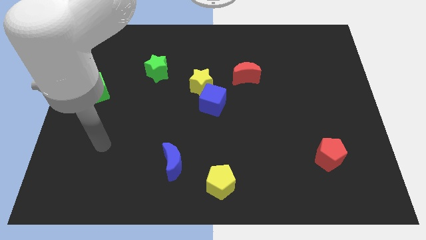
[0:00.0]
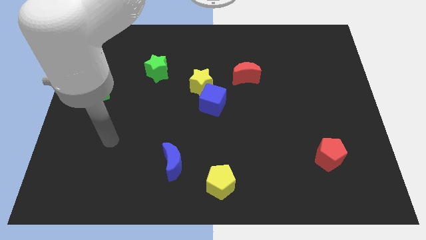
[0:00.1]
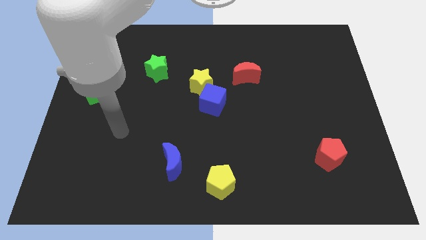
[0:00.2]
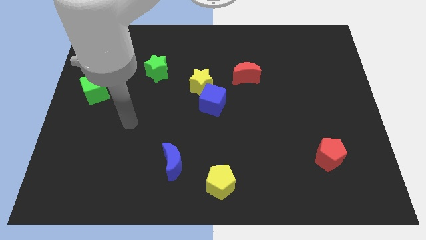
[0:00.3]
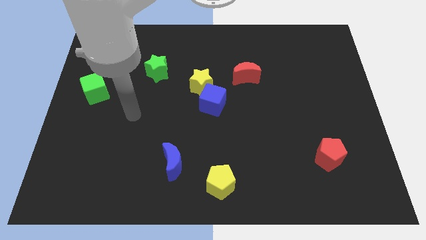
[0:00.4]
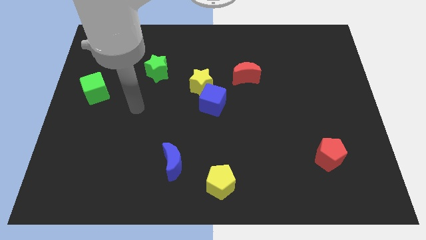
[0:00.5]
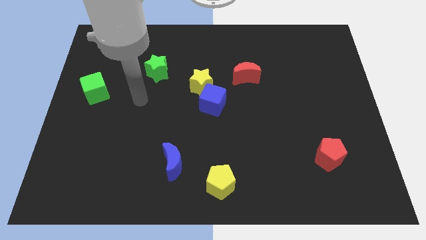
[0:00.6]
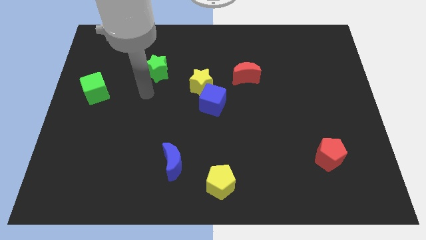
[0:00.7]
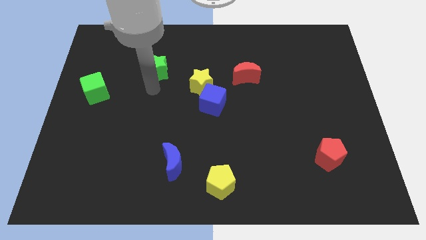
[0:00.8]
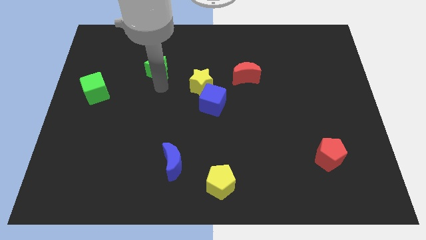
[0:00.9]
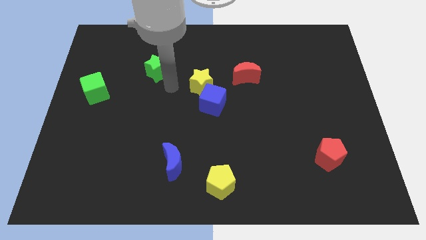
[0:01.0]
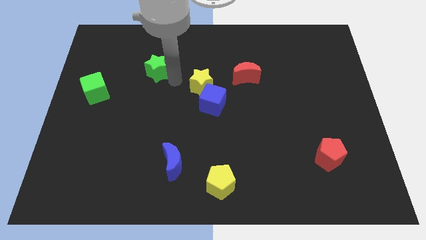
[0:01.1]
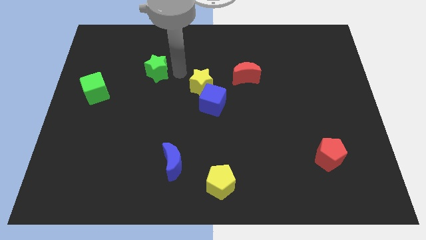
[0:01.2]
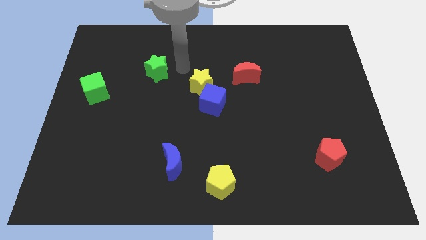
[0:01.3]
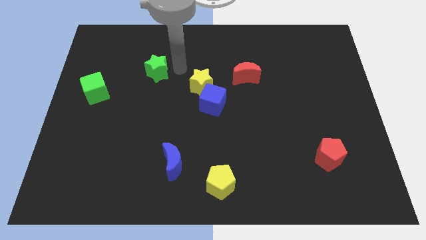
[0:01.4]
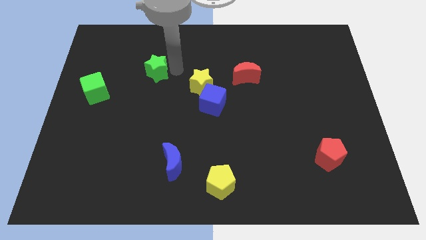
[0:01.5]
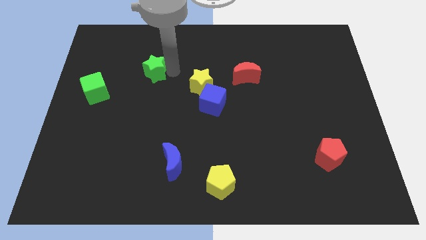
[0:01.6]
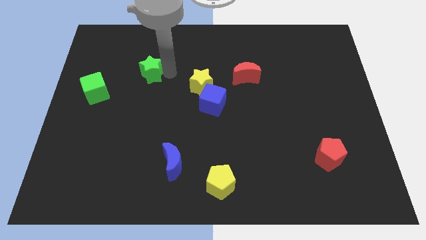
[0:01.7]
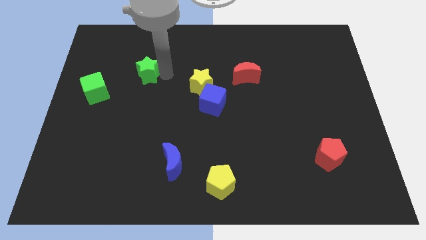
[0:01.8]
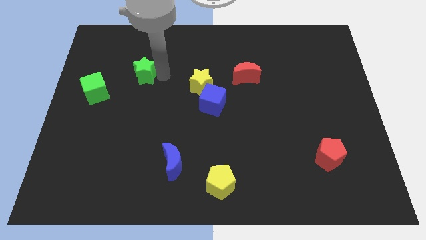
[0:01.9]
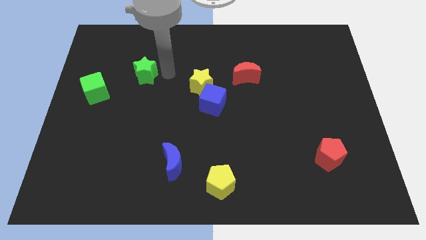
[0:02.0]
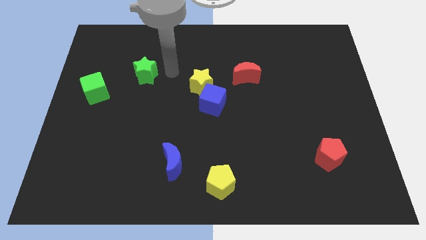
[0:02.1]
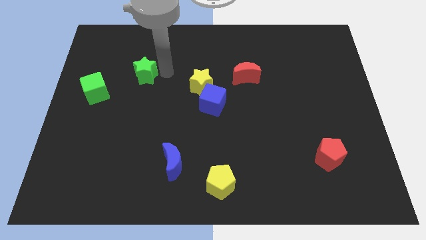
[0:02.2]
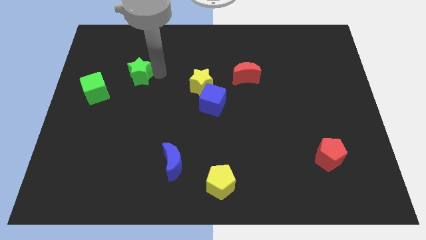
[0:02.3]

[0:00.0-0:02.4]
move the green star to the top right side of the green cube

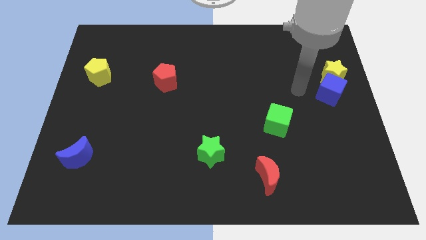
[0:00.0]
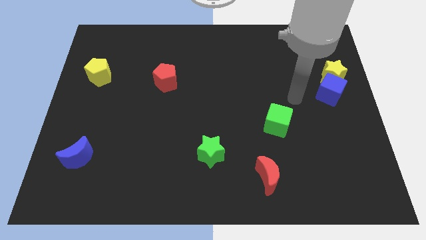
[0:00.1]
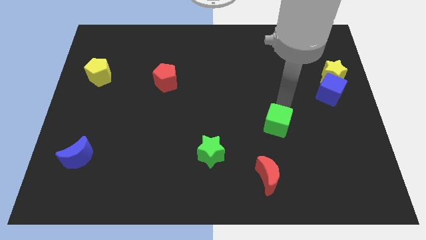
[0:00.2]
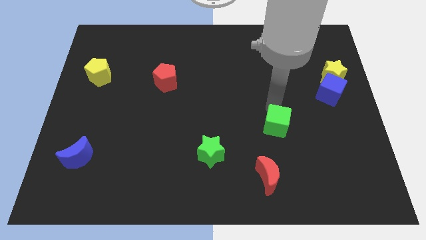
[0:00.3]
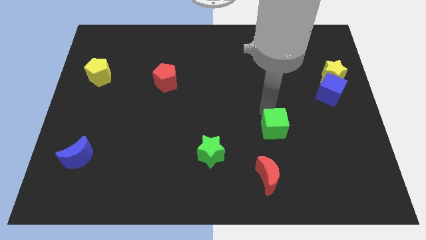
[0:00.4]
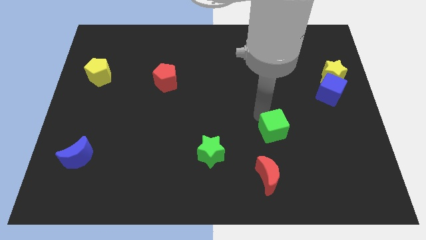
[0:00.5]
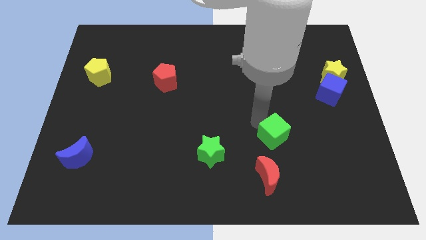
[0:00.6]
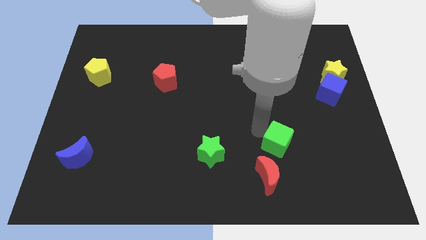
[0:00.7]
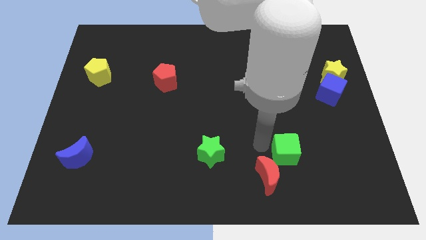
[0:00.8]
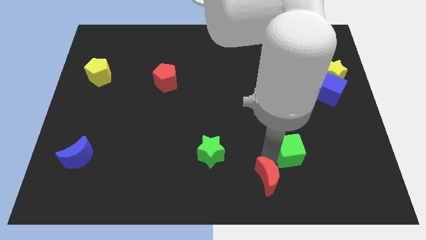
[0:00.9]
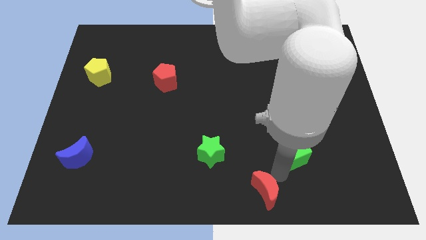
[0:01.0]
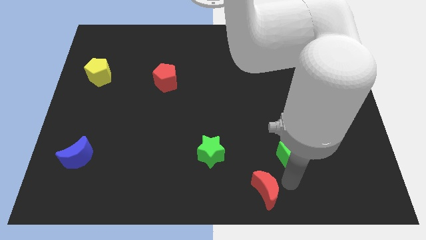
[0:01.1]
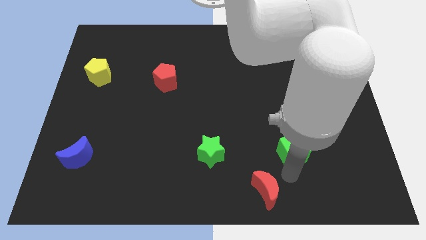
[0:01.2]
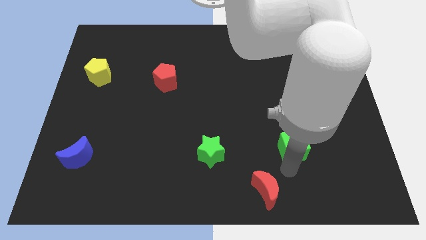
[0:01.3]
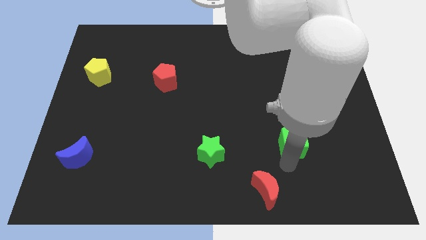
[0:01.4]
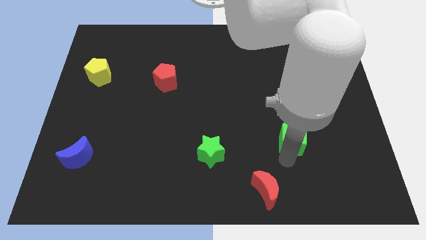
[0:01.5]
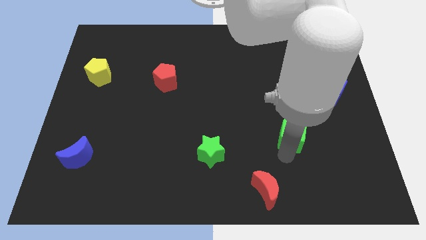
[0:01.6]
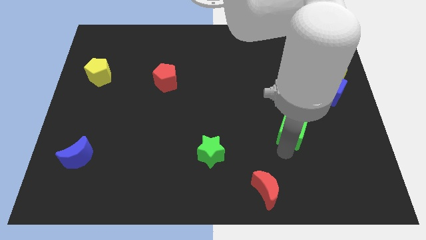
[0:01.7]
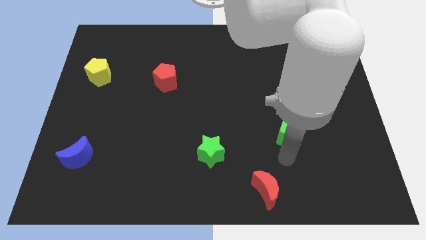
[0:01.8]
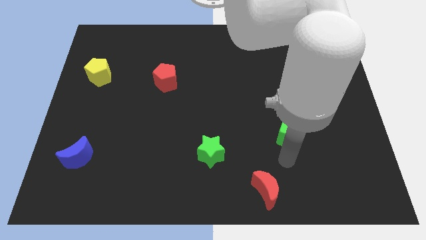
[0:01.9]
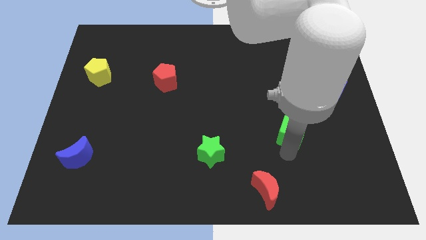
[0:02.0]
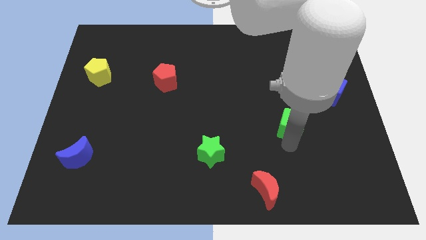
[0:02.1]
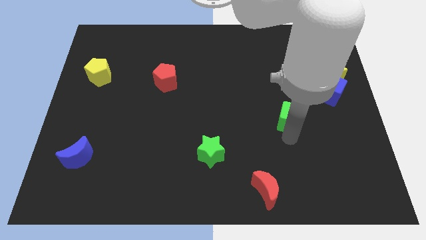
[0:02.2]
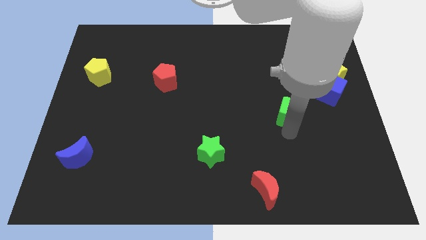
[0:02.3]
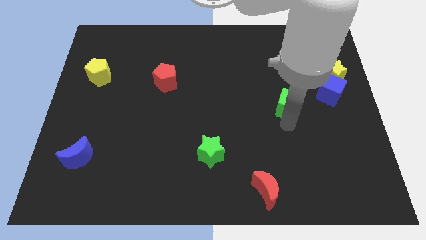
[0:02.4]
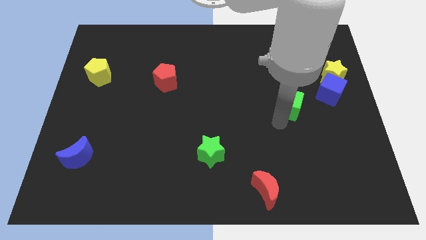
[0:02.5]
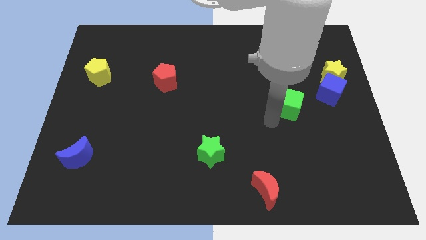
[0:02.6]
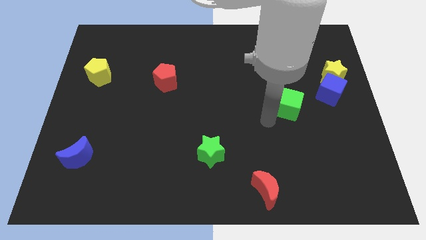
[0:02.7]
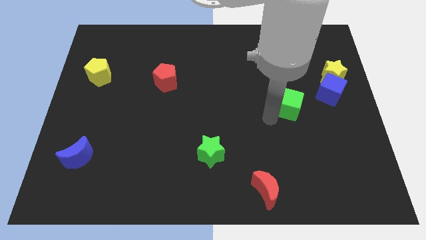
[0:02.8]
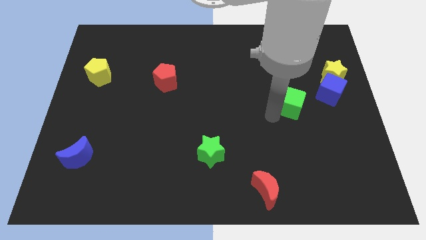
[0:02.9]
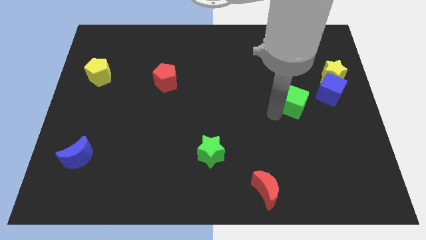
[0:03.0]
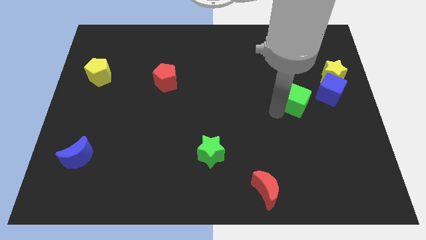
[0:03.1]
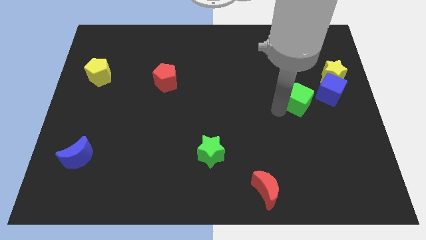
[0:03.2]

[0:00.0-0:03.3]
put the green cube to the bottom left side of the yellow star

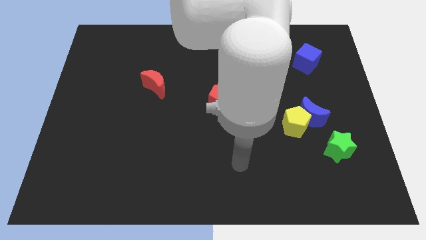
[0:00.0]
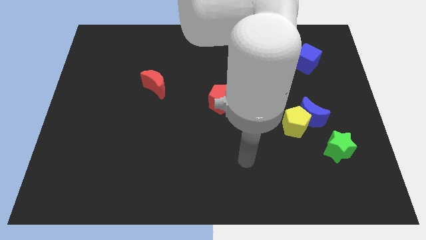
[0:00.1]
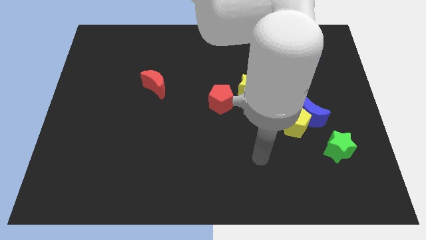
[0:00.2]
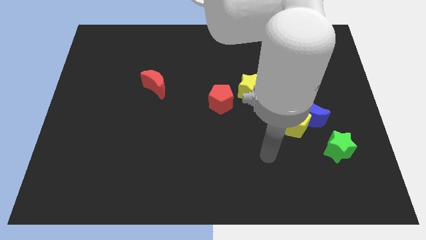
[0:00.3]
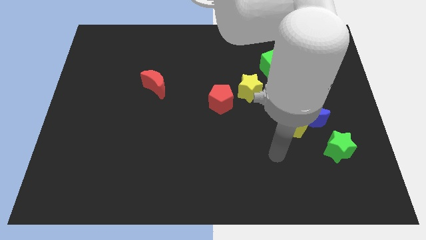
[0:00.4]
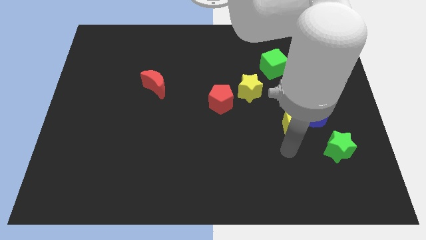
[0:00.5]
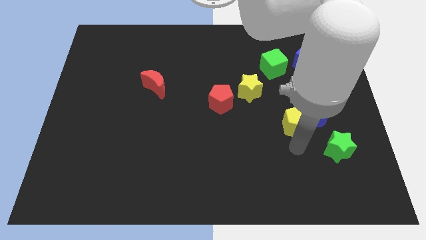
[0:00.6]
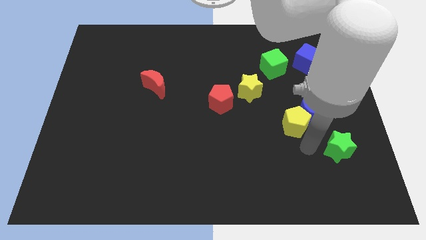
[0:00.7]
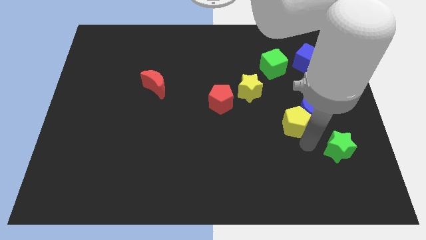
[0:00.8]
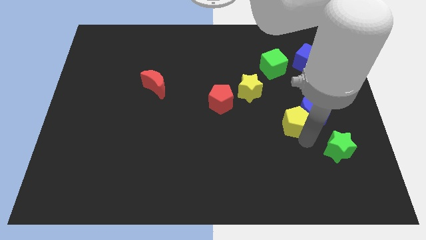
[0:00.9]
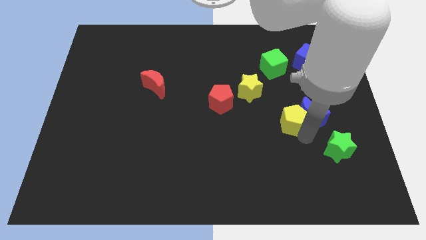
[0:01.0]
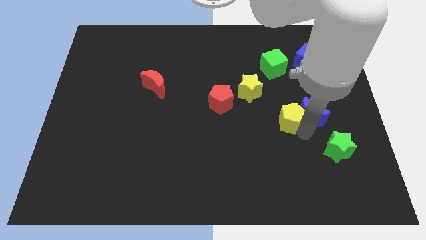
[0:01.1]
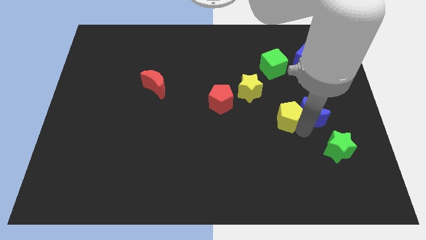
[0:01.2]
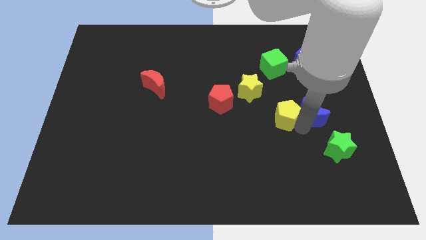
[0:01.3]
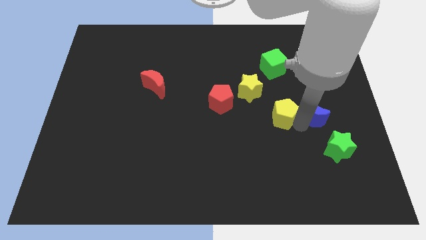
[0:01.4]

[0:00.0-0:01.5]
slide the yellow pentagon to the bottom side of the green cube

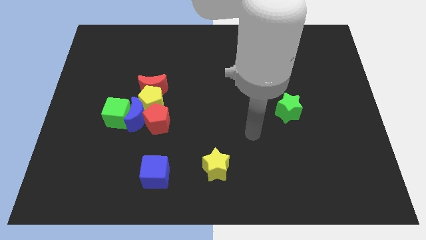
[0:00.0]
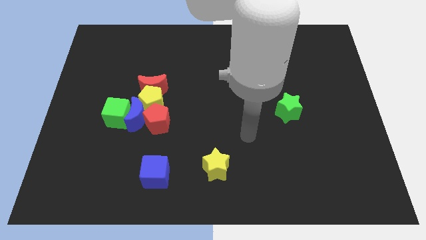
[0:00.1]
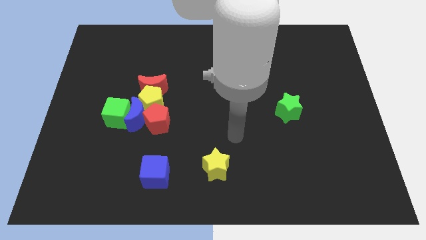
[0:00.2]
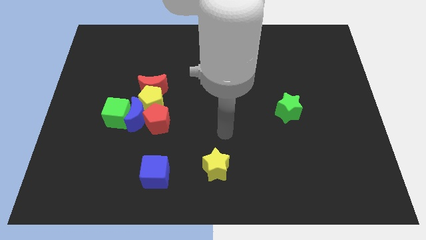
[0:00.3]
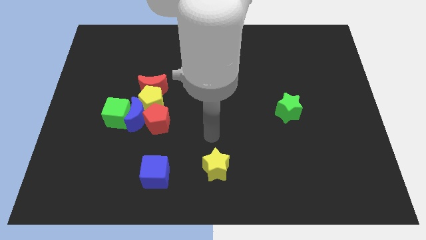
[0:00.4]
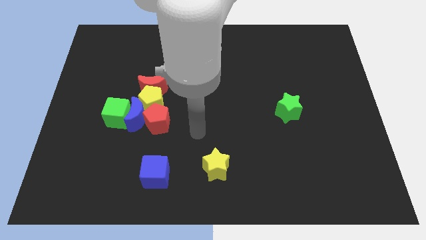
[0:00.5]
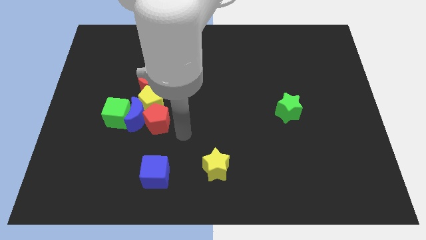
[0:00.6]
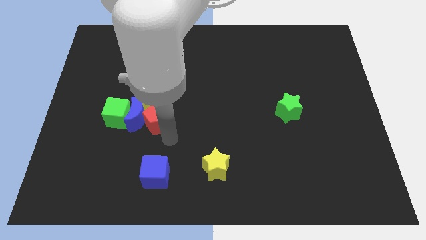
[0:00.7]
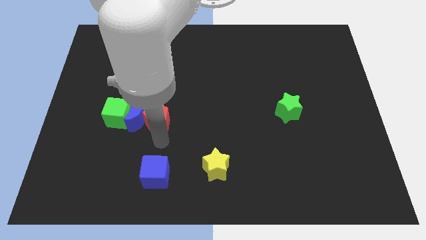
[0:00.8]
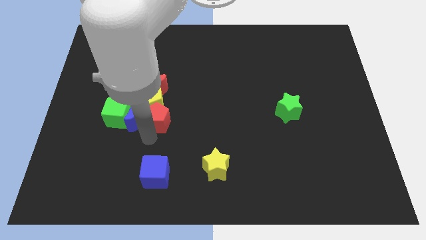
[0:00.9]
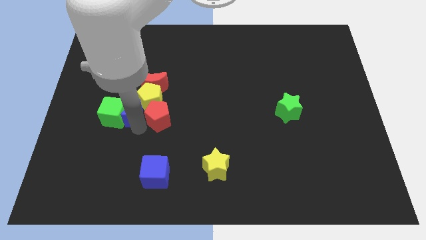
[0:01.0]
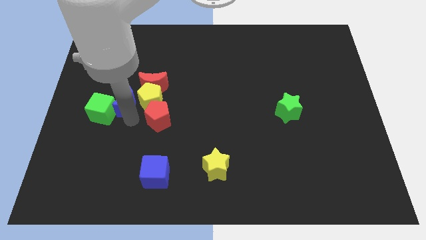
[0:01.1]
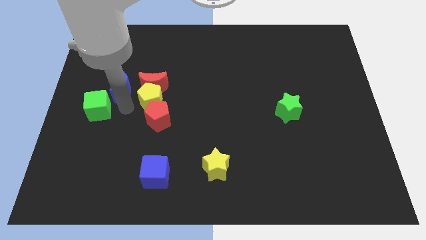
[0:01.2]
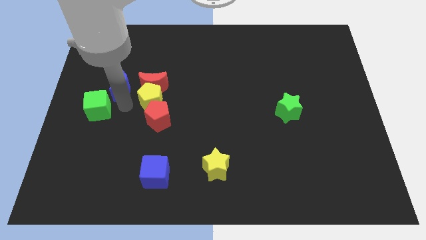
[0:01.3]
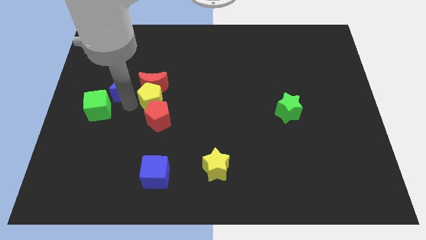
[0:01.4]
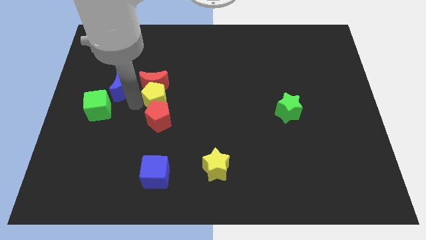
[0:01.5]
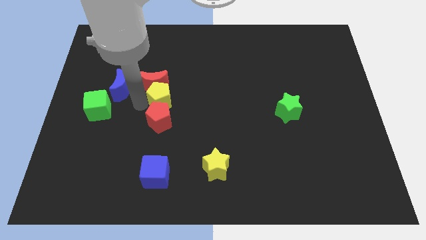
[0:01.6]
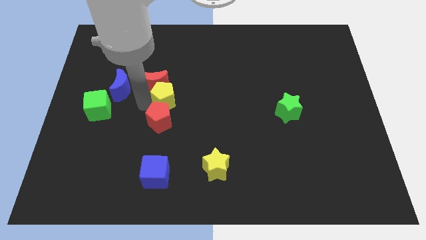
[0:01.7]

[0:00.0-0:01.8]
move the yellow pentagon to the right side of the red moon
